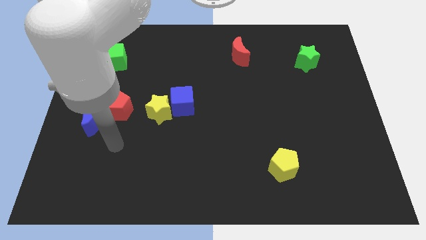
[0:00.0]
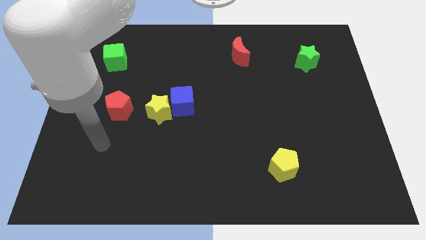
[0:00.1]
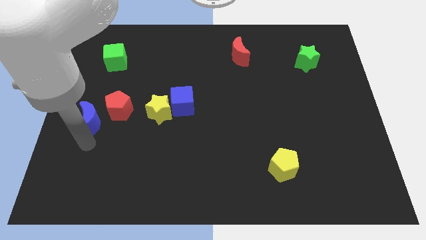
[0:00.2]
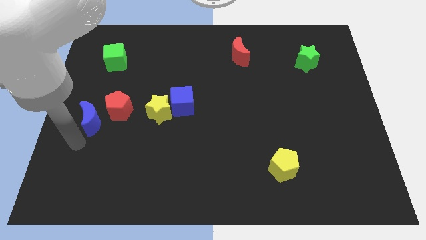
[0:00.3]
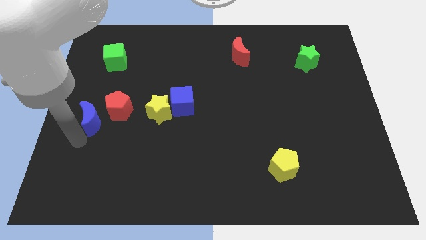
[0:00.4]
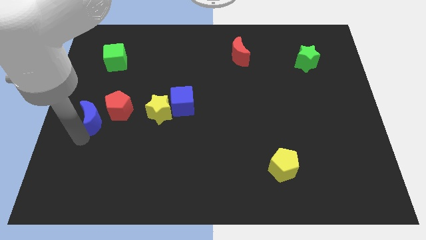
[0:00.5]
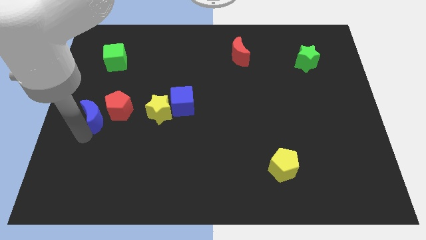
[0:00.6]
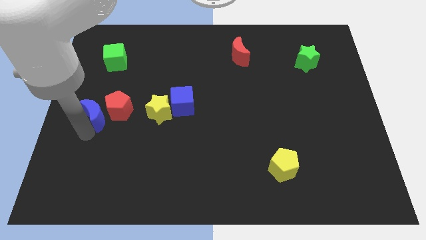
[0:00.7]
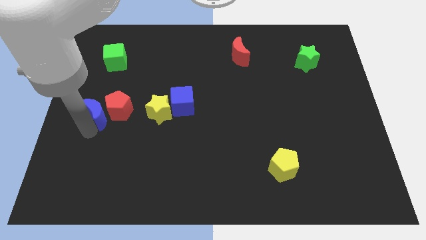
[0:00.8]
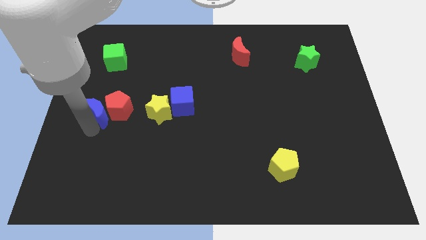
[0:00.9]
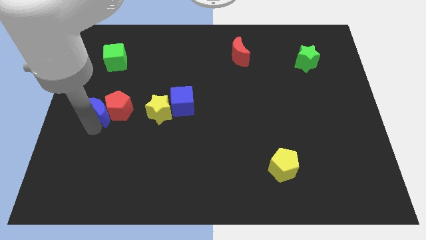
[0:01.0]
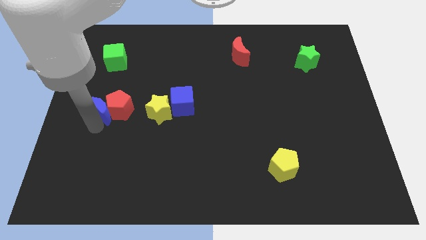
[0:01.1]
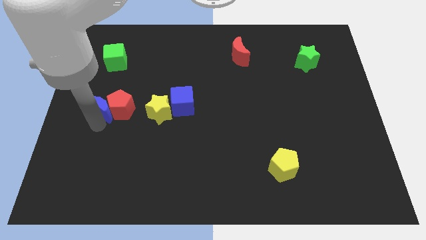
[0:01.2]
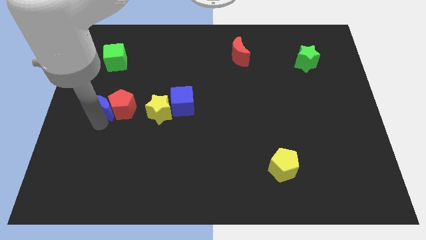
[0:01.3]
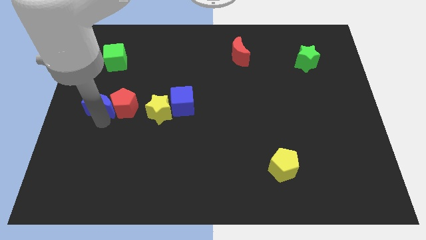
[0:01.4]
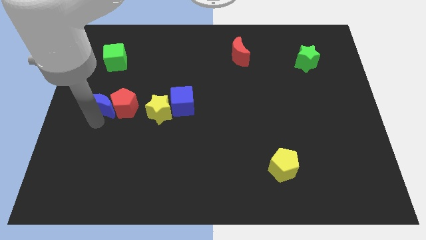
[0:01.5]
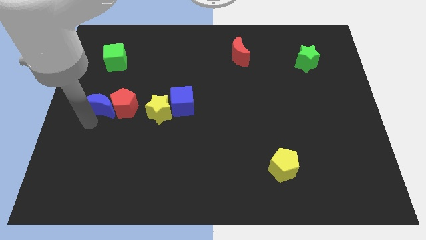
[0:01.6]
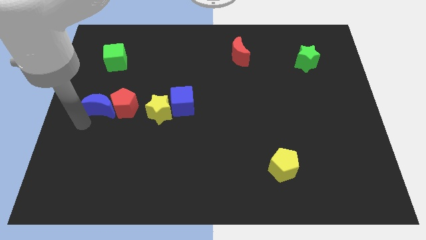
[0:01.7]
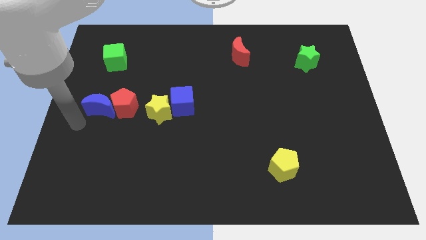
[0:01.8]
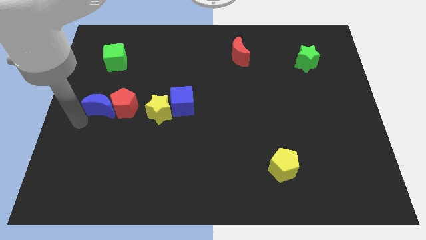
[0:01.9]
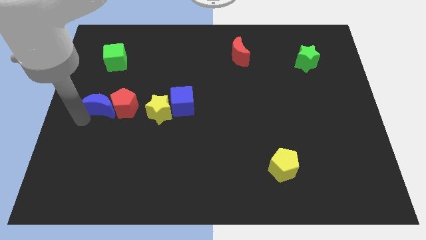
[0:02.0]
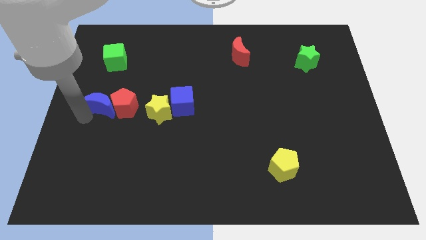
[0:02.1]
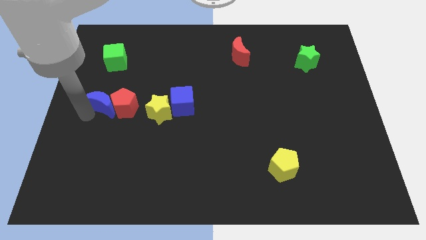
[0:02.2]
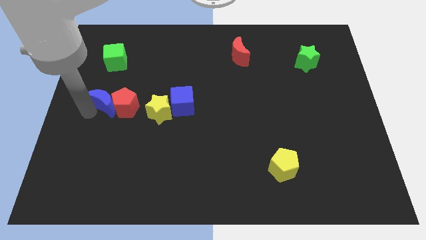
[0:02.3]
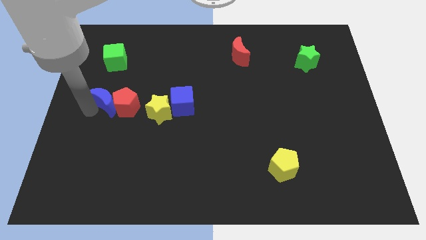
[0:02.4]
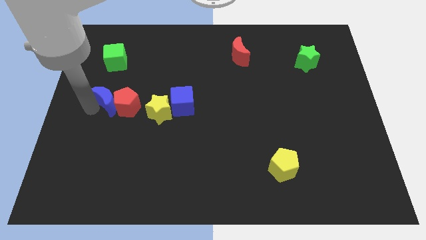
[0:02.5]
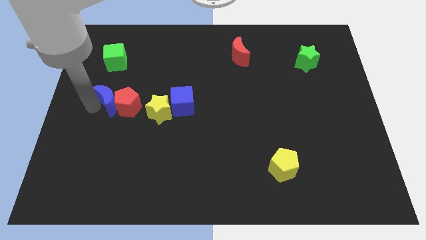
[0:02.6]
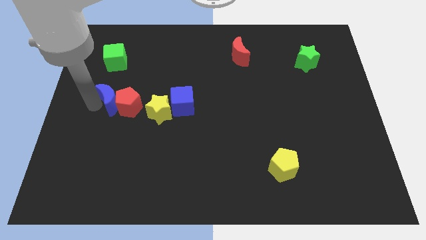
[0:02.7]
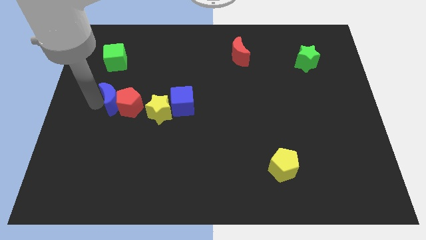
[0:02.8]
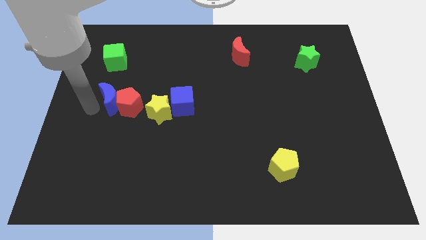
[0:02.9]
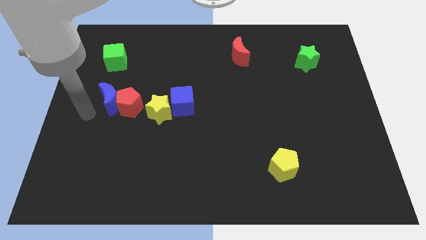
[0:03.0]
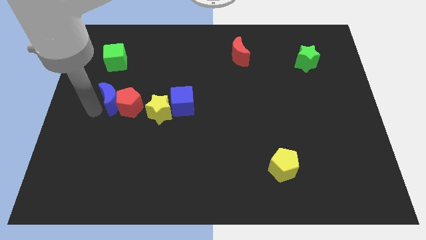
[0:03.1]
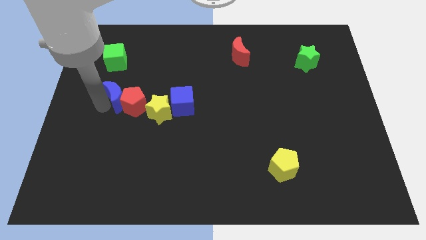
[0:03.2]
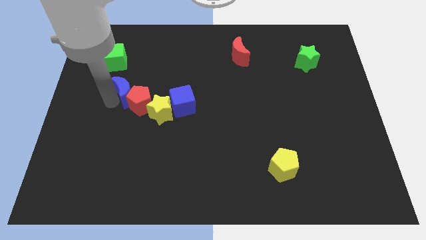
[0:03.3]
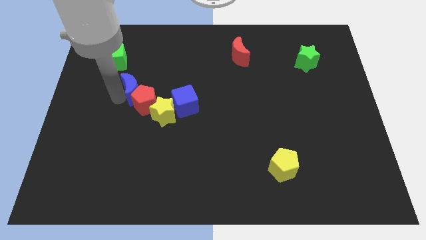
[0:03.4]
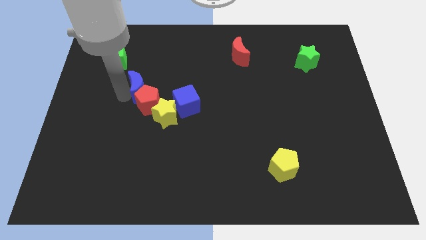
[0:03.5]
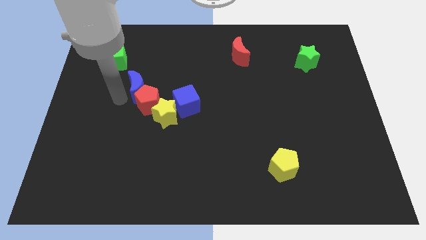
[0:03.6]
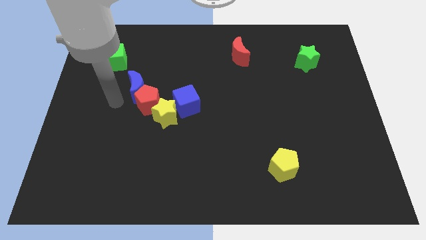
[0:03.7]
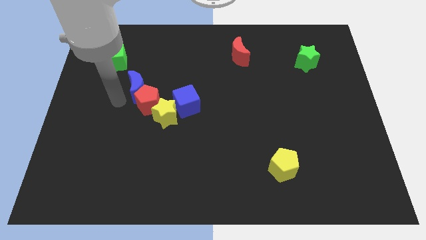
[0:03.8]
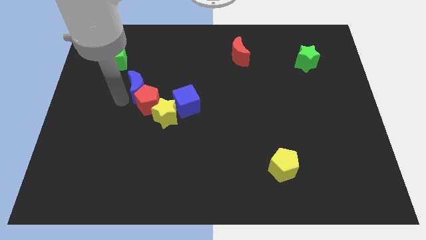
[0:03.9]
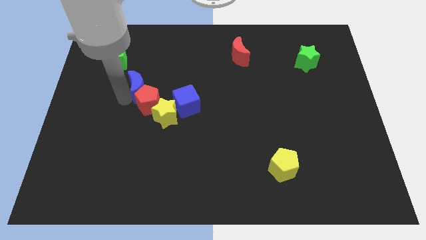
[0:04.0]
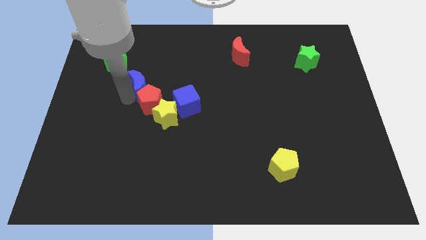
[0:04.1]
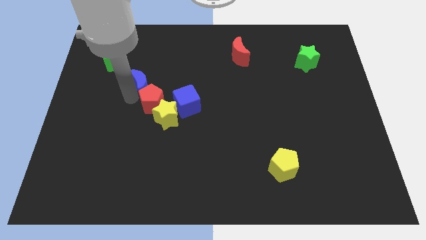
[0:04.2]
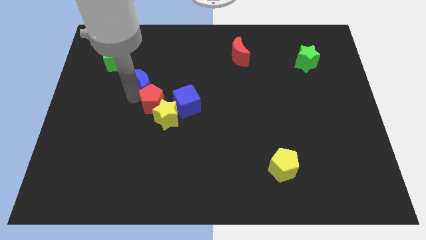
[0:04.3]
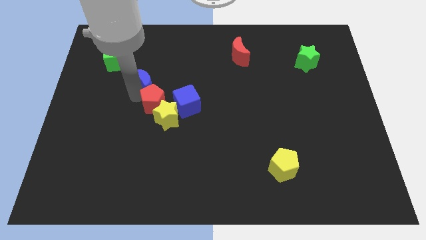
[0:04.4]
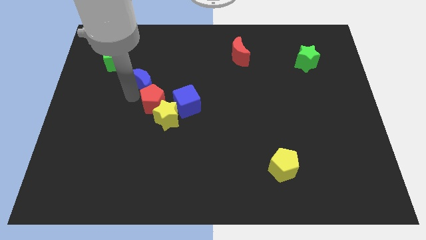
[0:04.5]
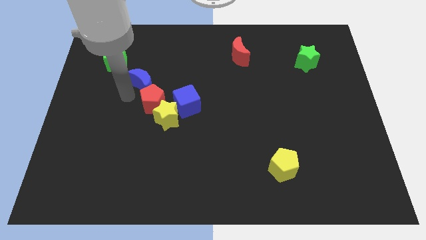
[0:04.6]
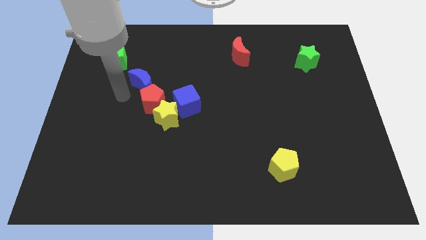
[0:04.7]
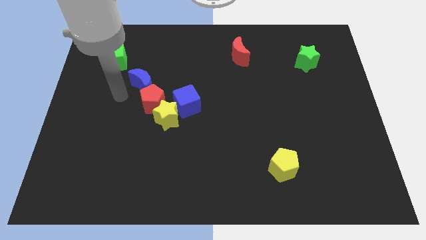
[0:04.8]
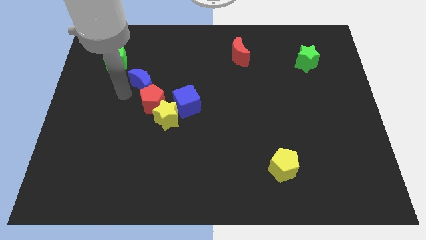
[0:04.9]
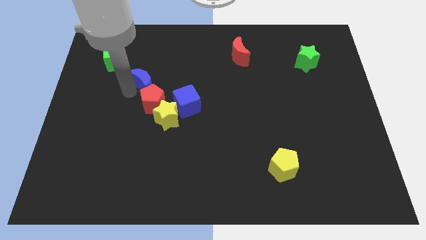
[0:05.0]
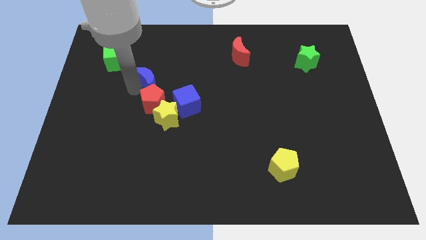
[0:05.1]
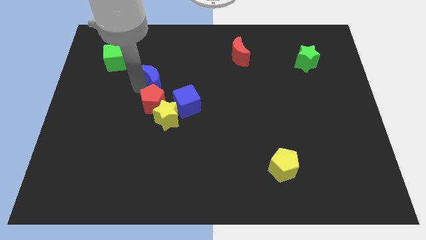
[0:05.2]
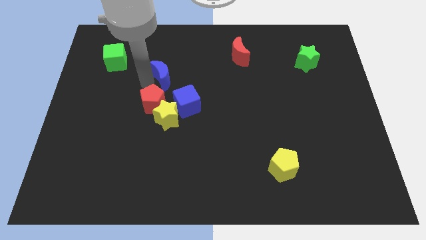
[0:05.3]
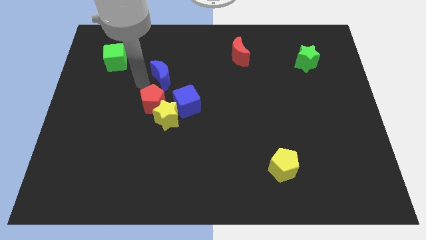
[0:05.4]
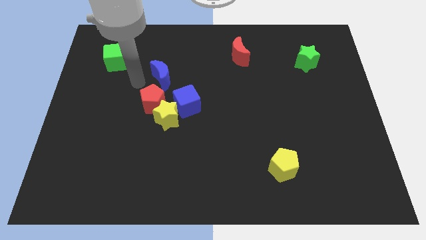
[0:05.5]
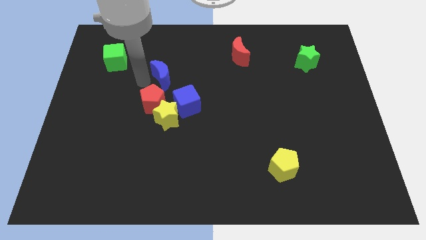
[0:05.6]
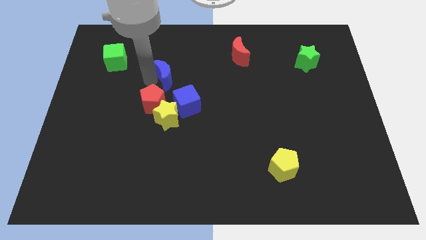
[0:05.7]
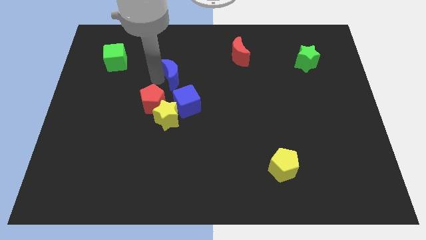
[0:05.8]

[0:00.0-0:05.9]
slide the blue moon to the top of the blue cube

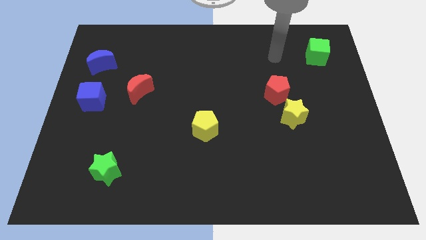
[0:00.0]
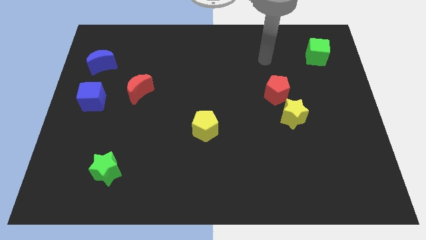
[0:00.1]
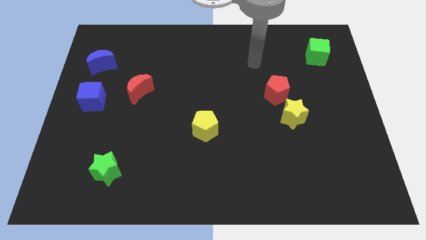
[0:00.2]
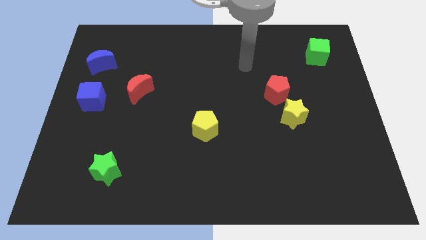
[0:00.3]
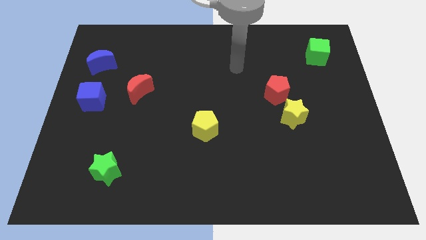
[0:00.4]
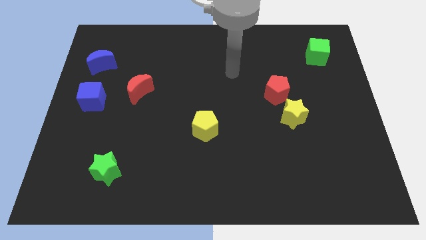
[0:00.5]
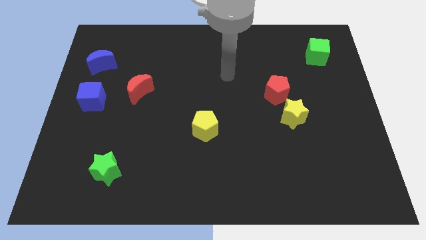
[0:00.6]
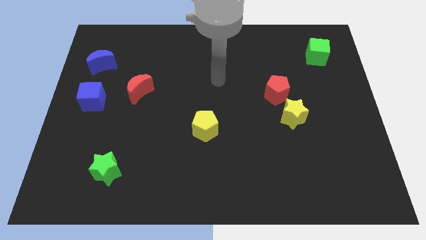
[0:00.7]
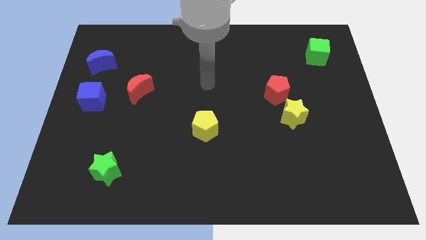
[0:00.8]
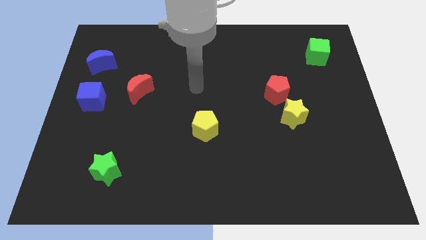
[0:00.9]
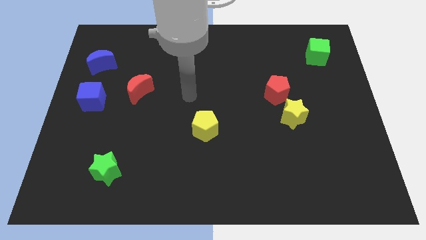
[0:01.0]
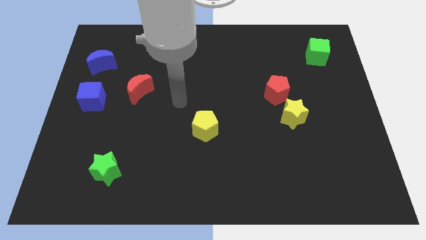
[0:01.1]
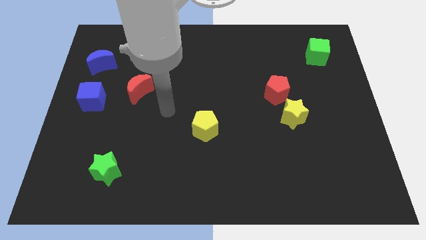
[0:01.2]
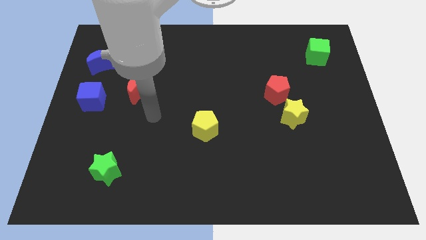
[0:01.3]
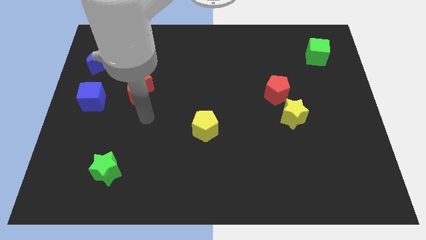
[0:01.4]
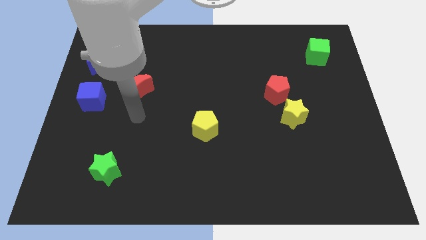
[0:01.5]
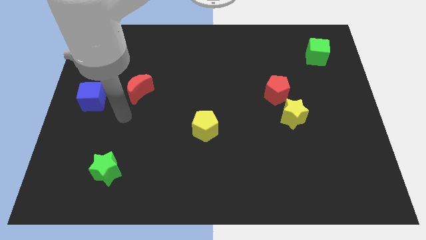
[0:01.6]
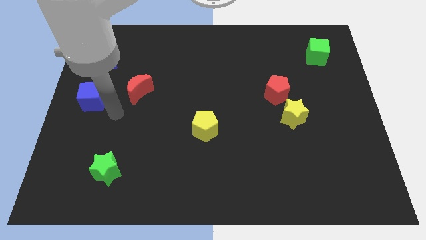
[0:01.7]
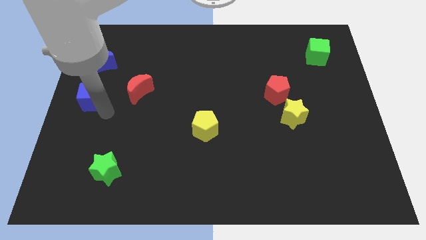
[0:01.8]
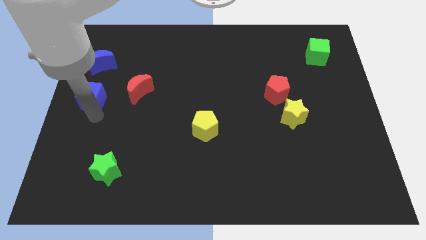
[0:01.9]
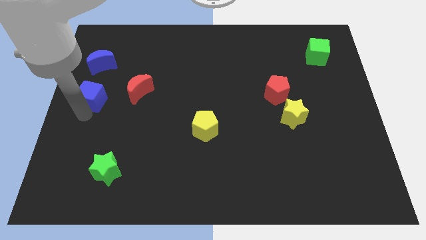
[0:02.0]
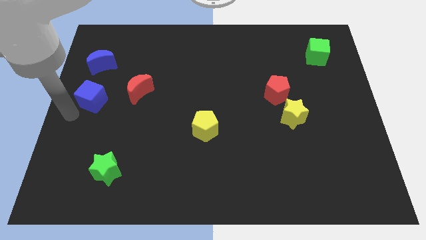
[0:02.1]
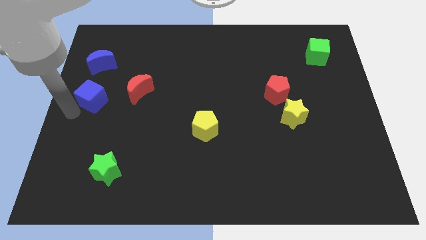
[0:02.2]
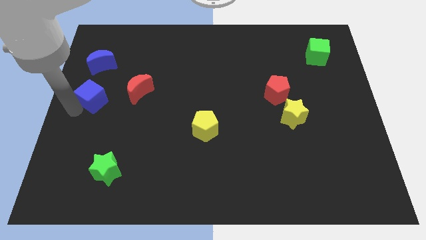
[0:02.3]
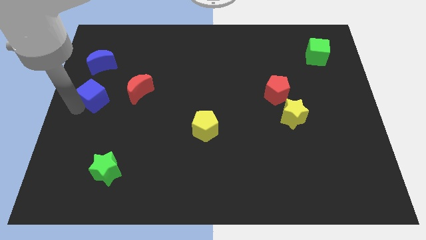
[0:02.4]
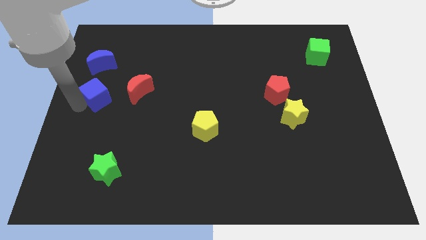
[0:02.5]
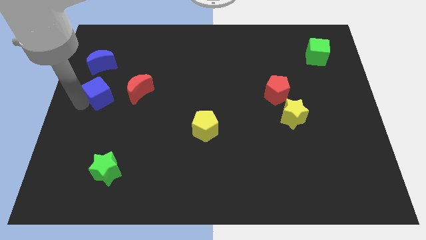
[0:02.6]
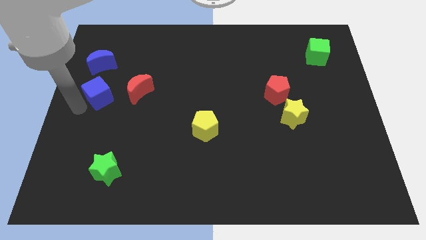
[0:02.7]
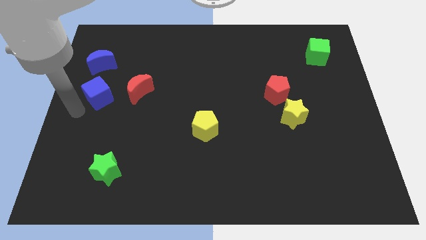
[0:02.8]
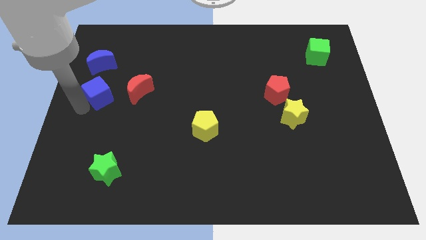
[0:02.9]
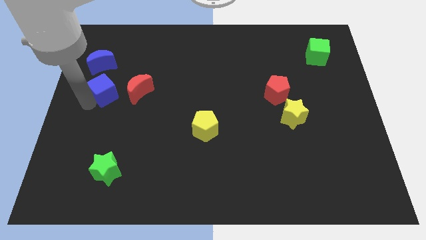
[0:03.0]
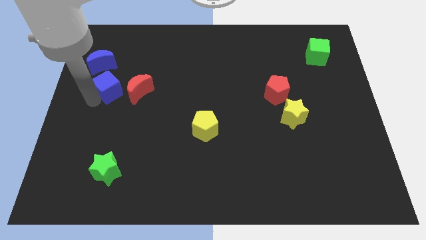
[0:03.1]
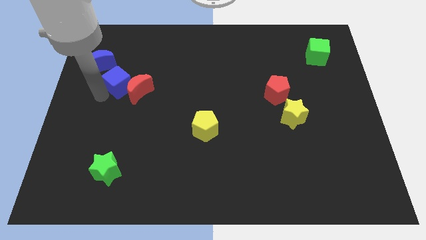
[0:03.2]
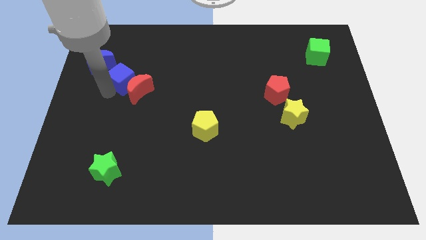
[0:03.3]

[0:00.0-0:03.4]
slide the blue cube to the top side of the red moon
